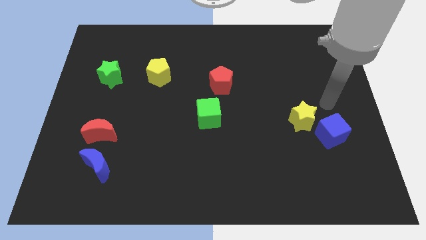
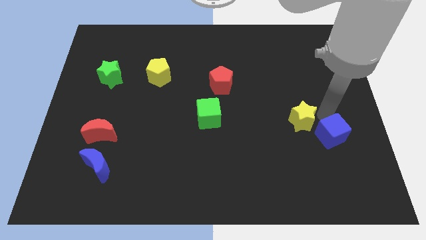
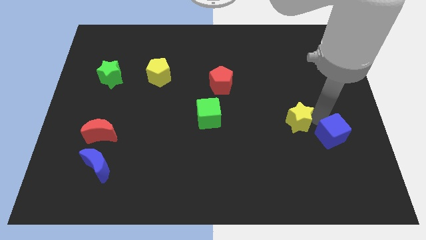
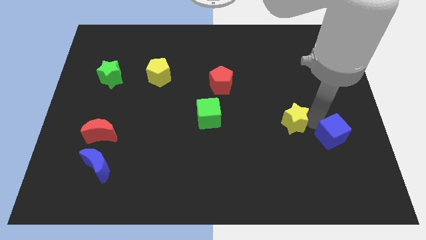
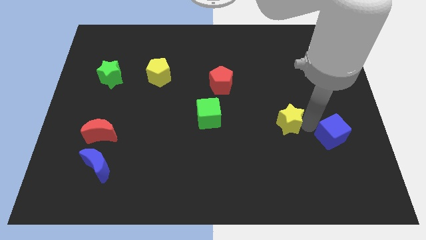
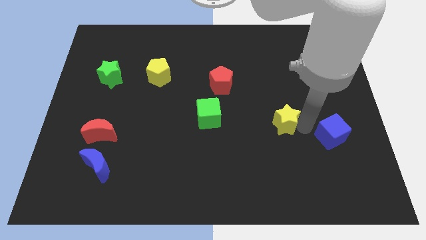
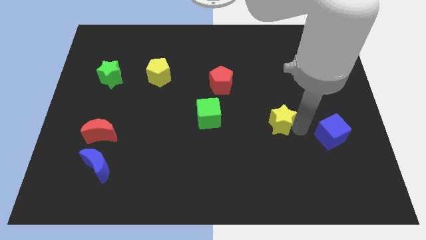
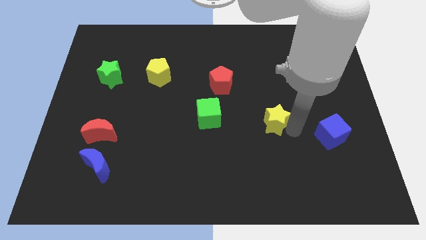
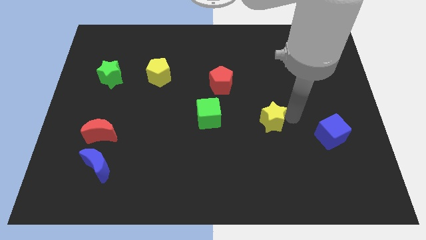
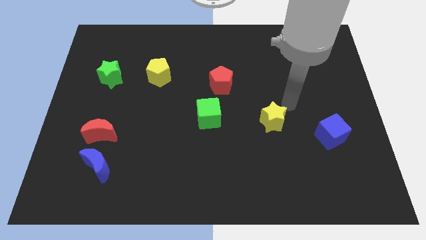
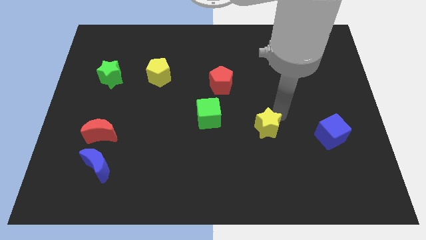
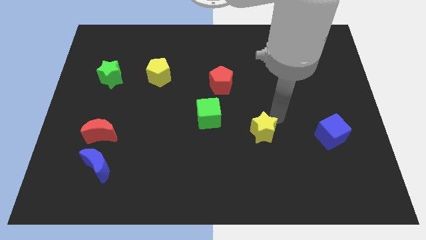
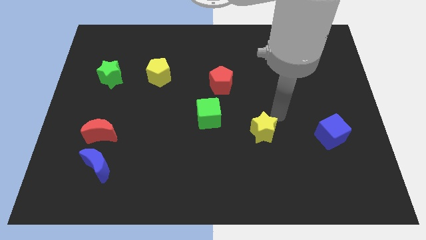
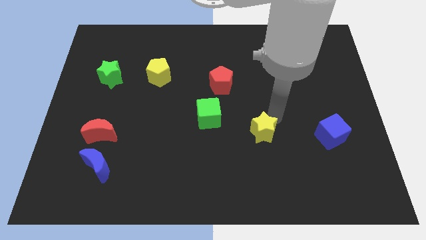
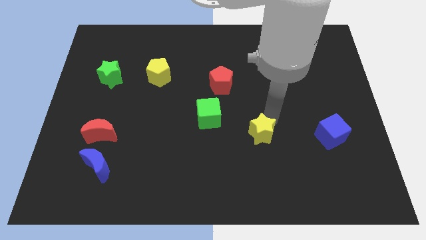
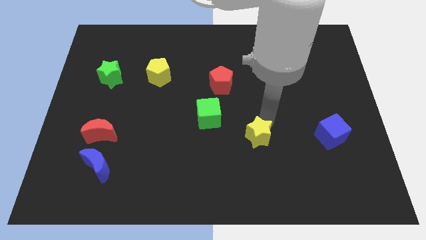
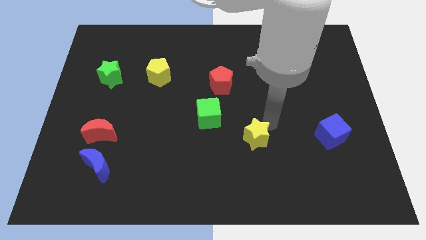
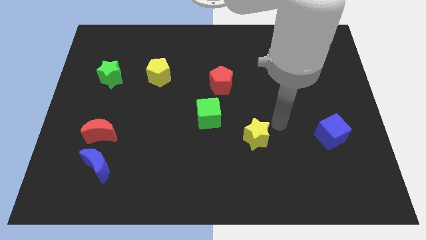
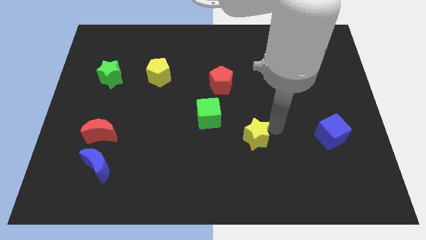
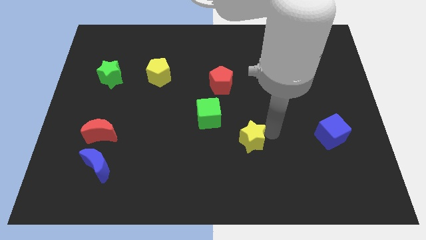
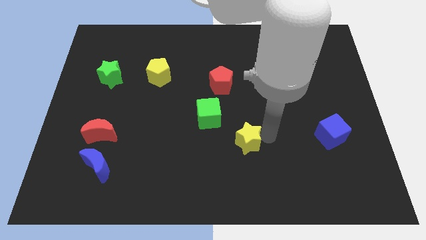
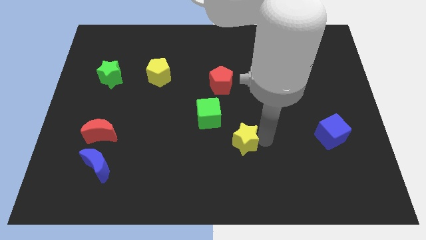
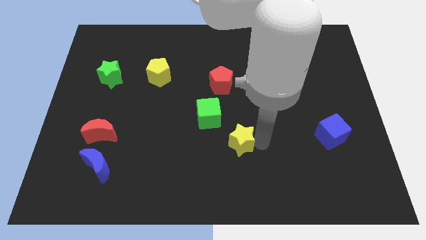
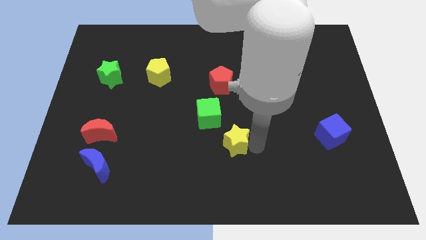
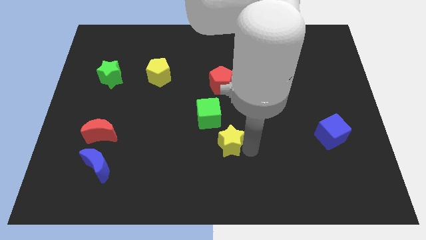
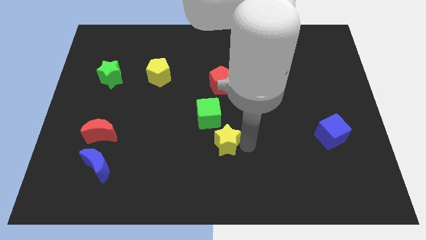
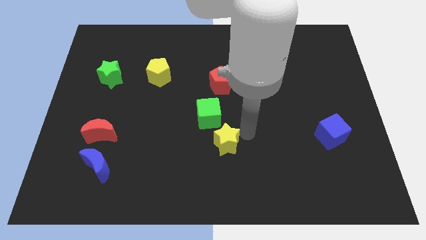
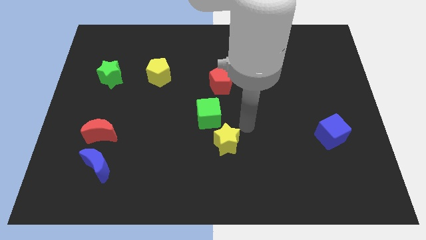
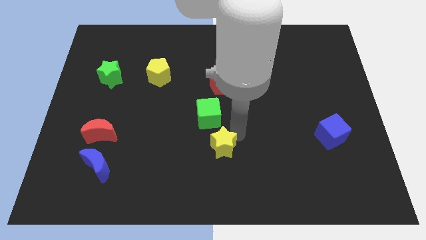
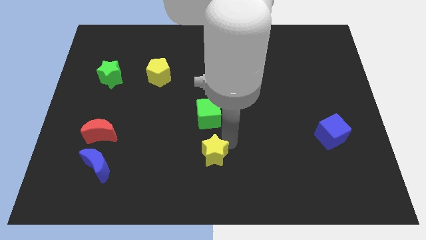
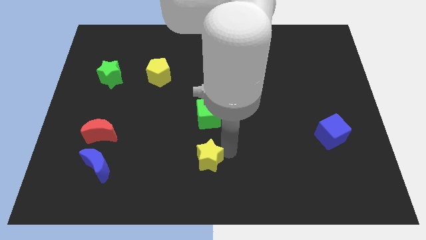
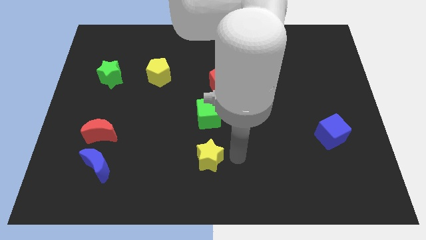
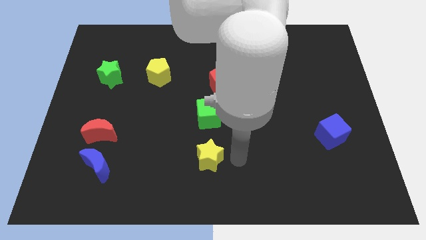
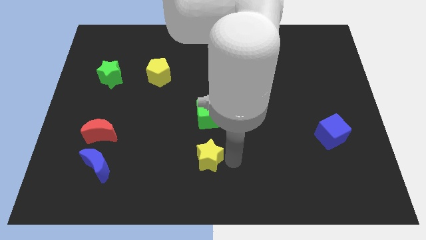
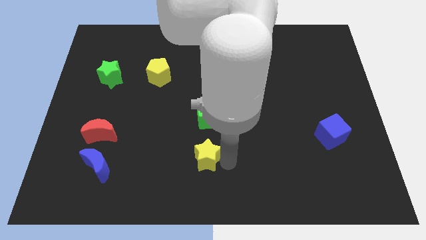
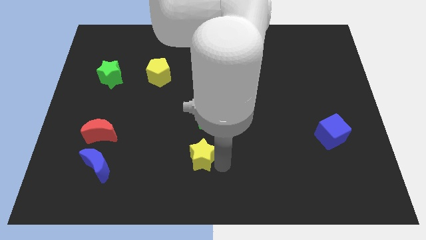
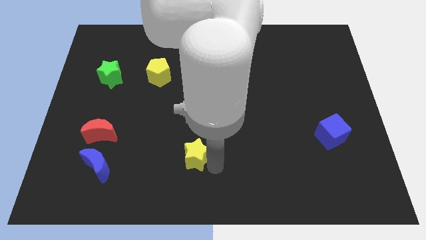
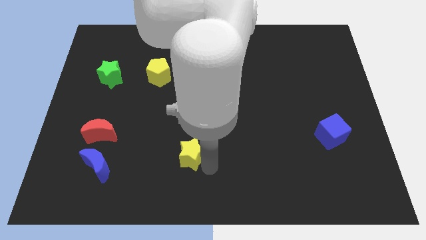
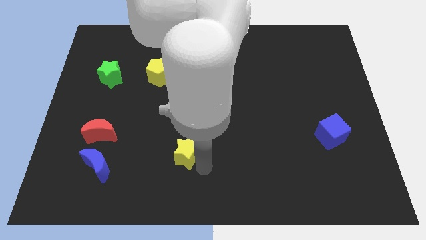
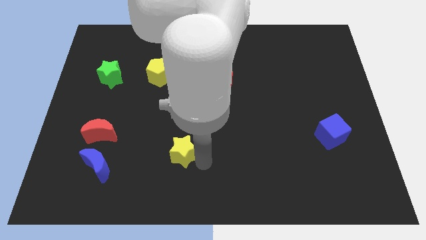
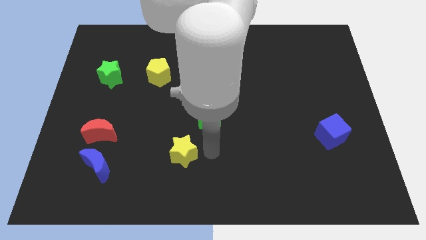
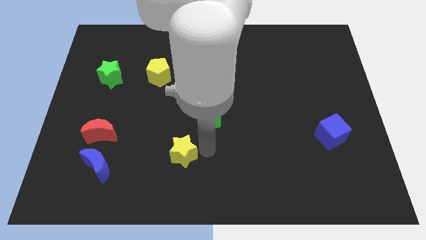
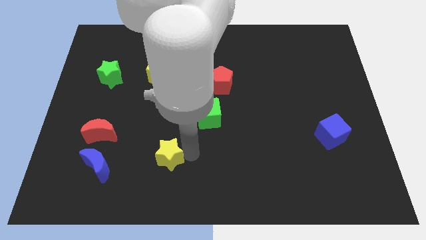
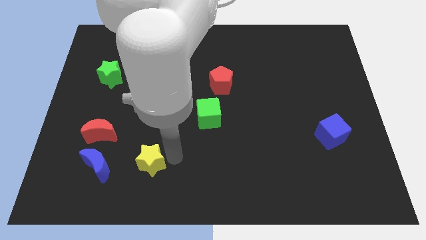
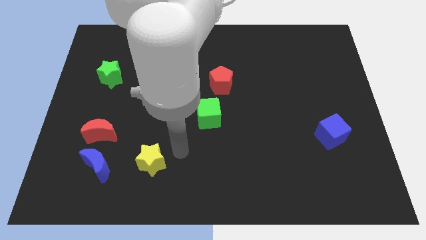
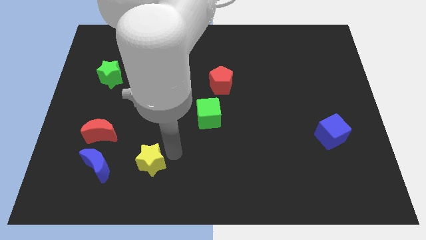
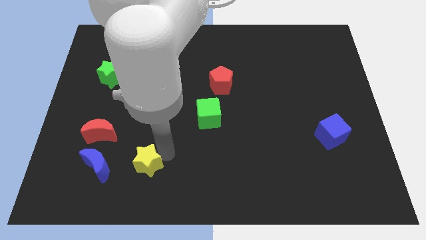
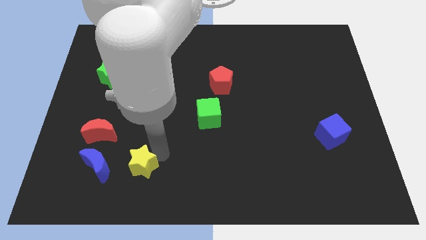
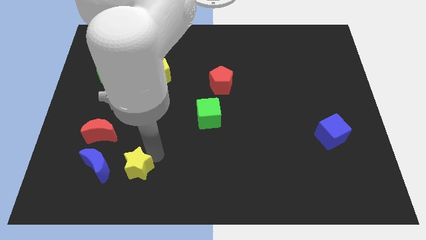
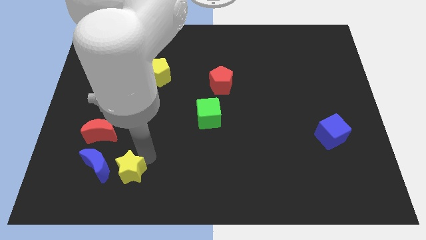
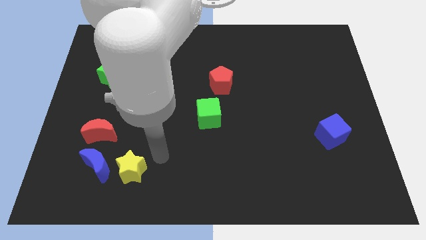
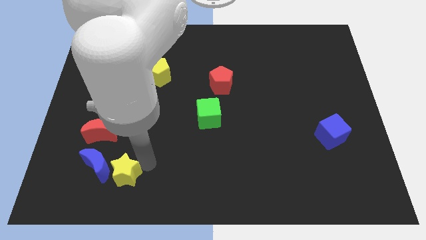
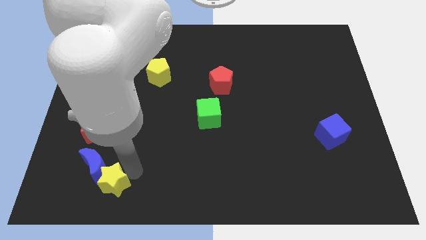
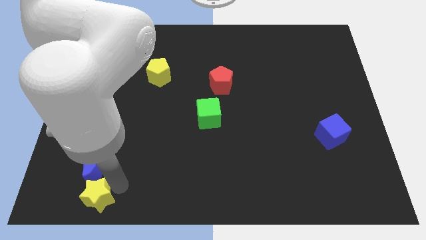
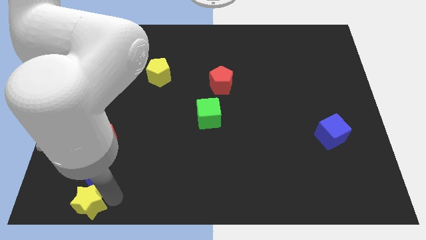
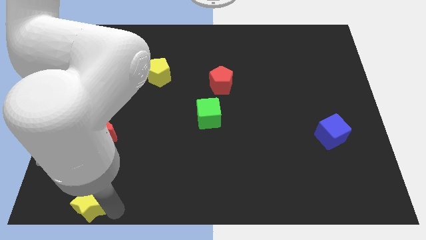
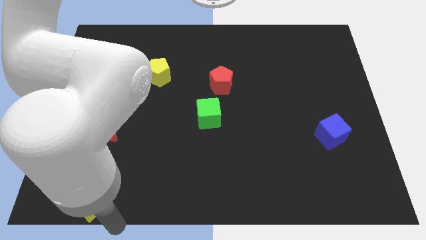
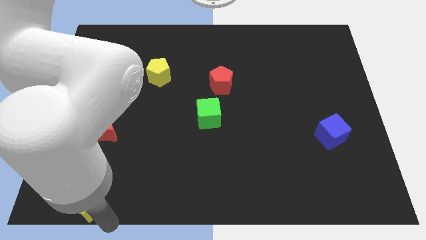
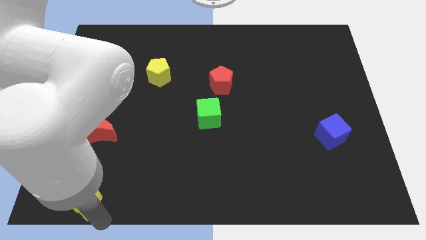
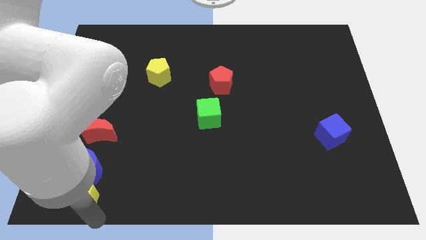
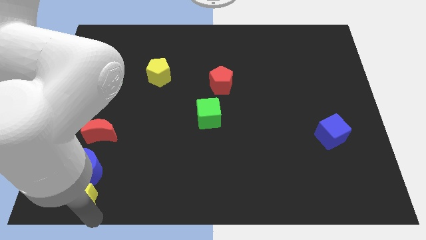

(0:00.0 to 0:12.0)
put the yellow star to the bottom left of the board

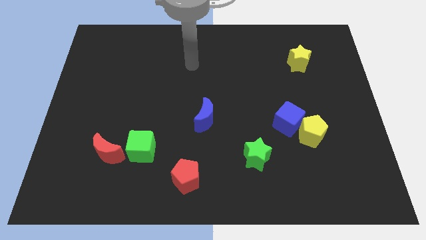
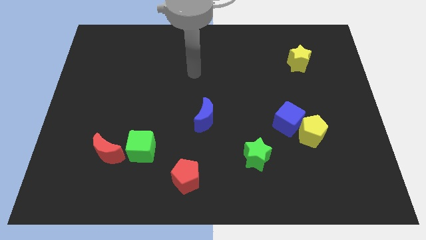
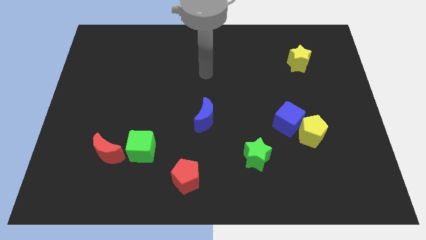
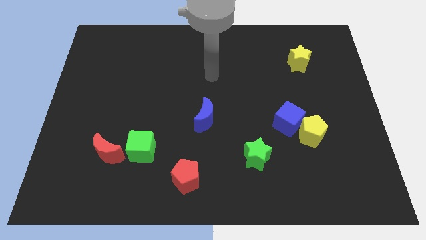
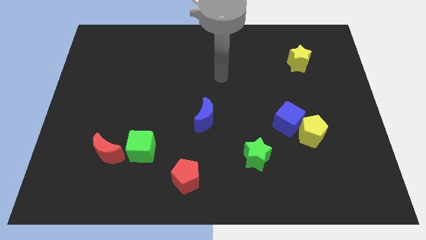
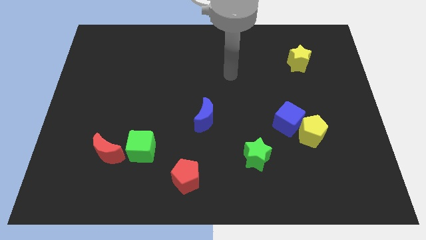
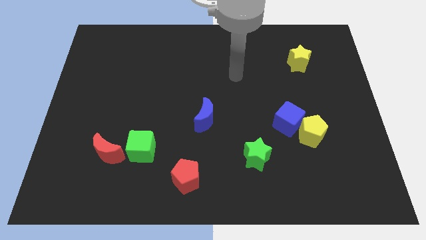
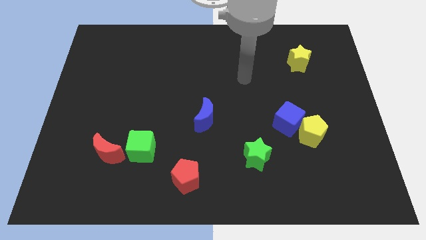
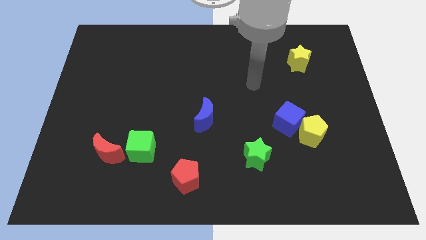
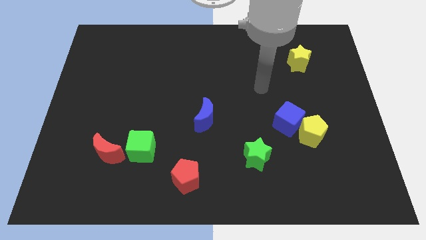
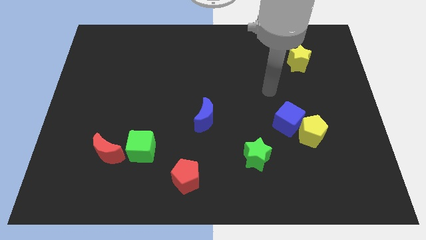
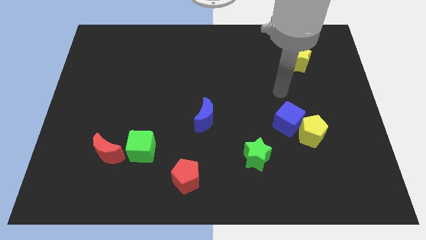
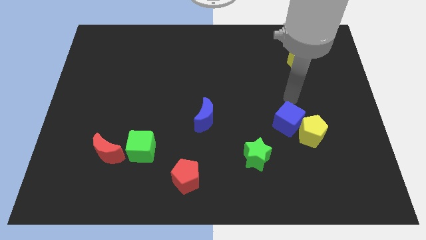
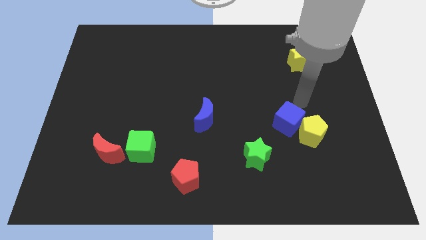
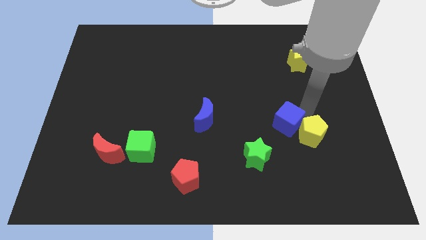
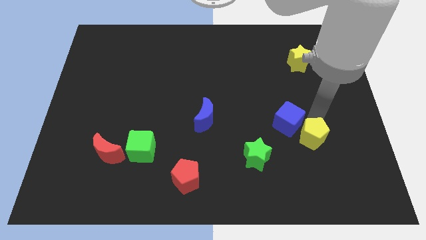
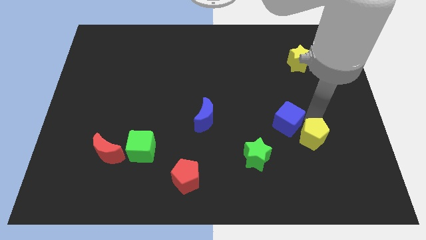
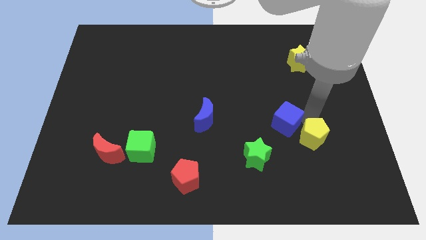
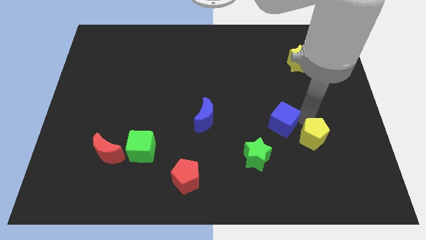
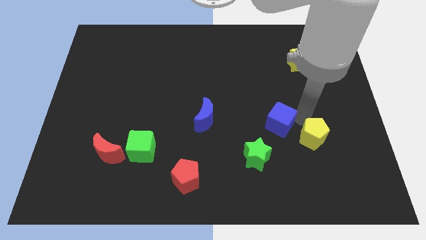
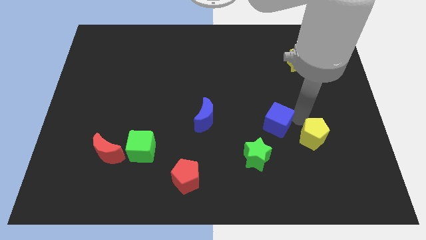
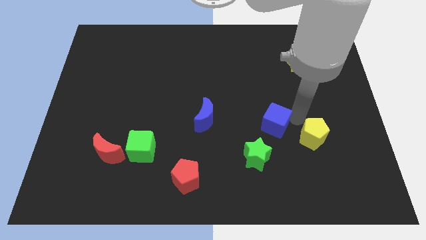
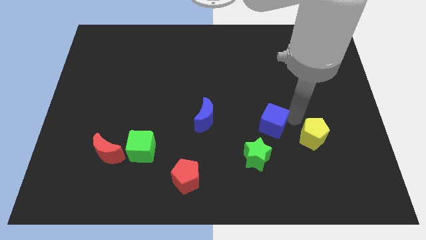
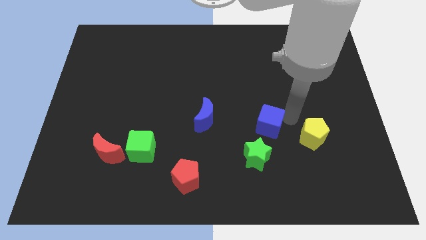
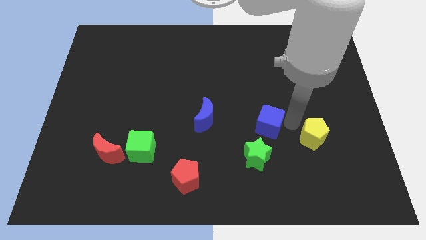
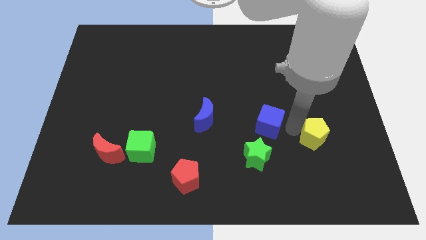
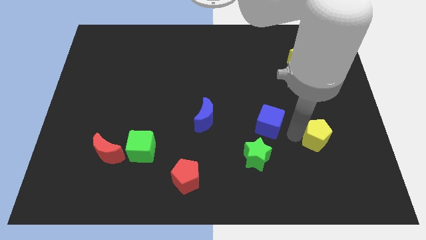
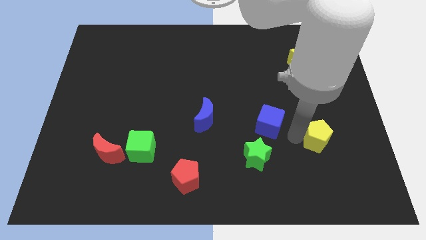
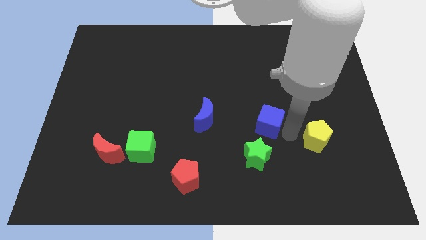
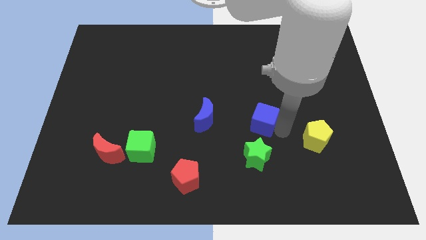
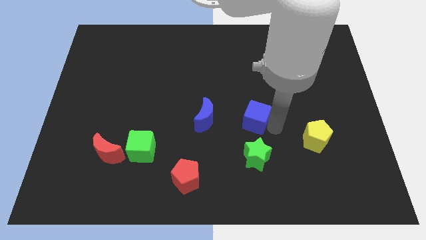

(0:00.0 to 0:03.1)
put the blue cube to the center of the board
